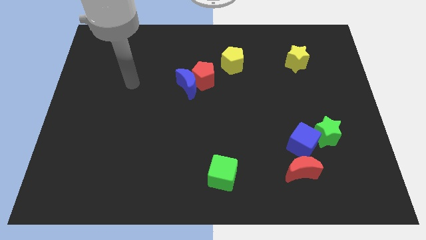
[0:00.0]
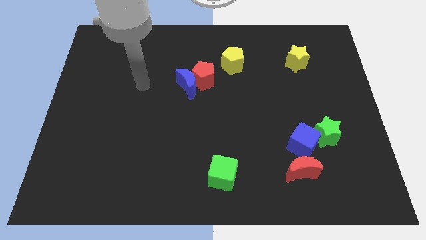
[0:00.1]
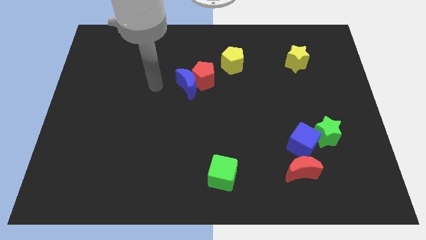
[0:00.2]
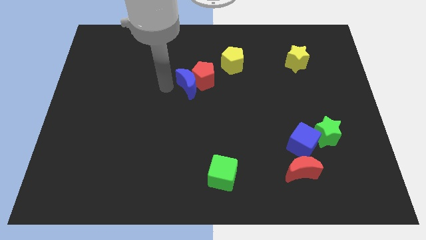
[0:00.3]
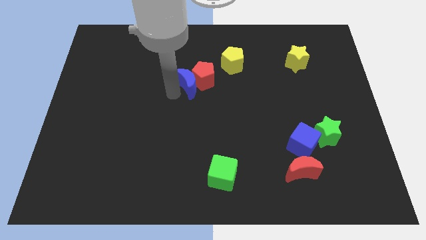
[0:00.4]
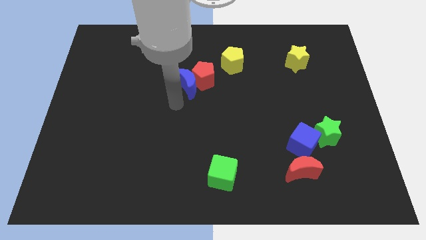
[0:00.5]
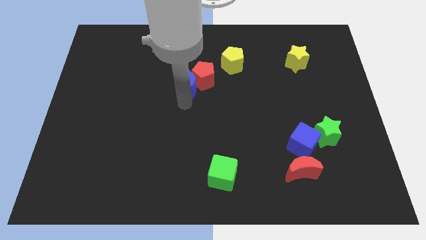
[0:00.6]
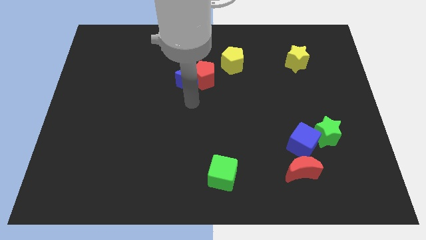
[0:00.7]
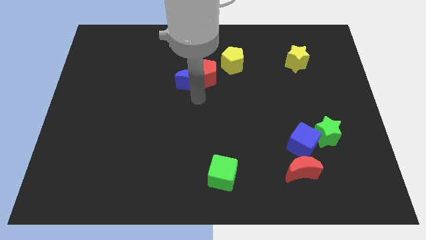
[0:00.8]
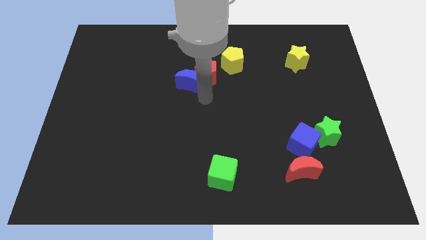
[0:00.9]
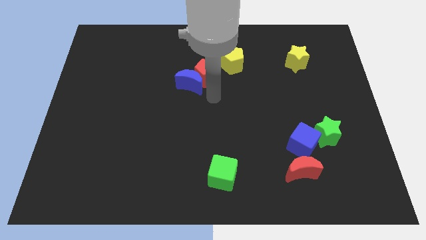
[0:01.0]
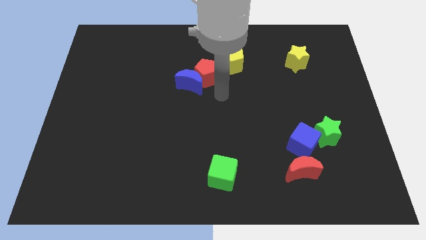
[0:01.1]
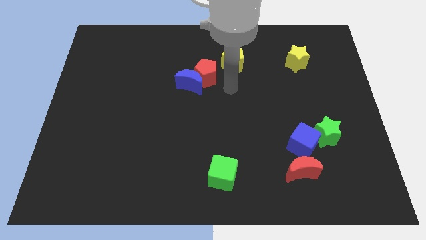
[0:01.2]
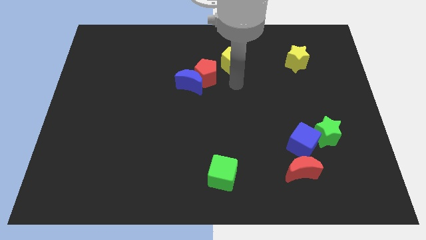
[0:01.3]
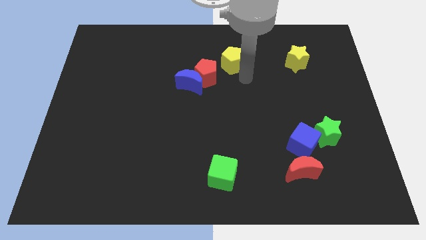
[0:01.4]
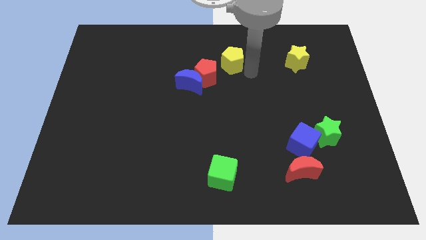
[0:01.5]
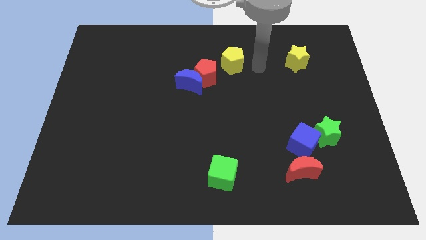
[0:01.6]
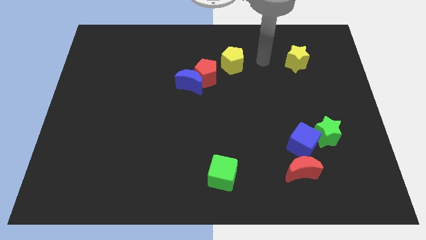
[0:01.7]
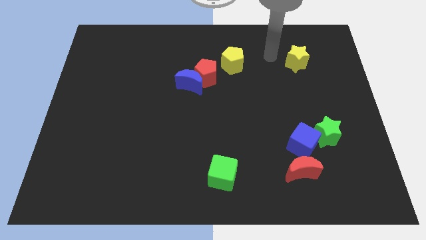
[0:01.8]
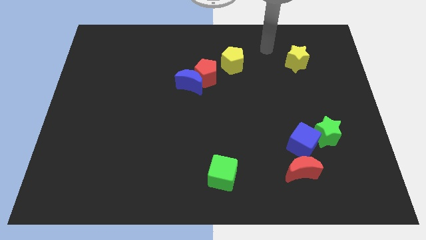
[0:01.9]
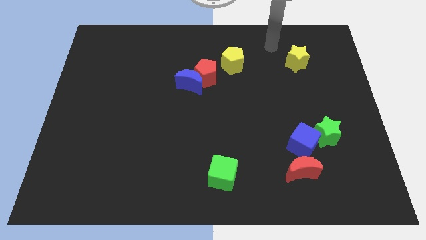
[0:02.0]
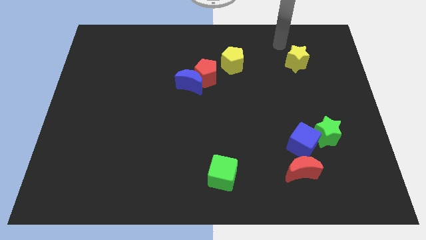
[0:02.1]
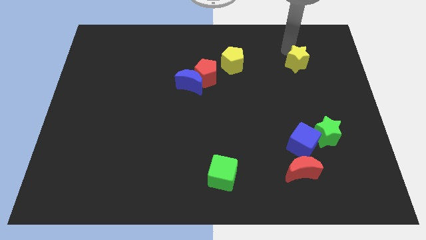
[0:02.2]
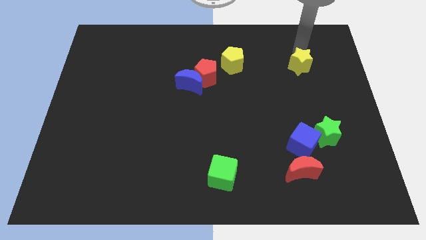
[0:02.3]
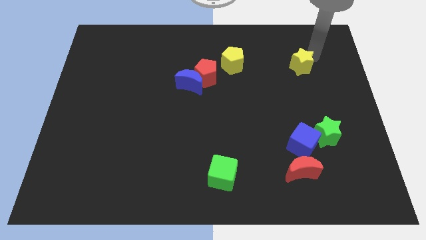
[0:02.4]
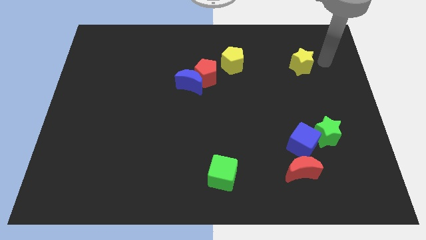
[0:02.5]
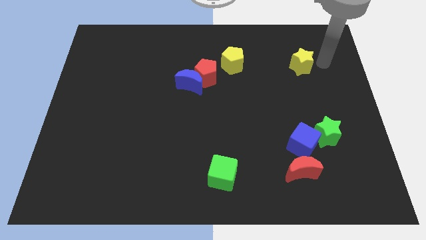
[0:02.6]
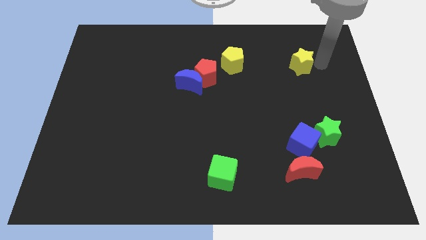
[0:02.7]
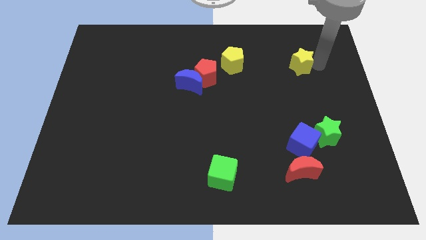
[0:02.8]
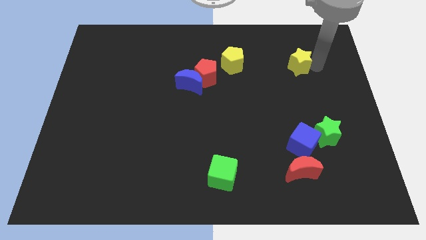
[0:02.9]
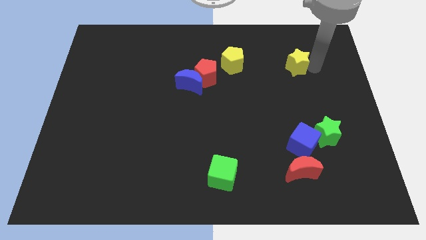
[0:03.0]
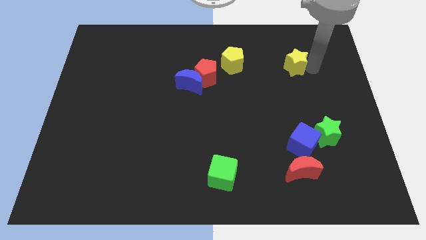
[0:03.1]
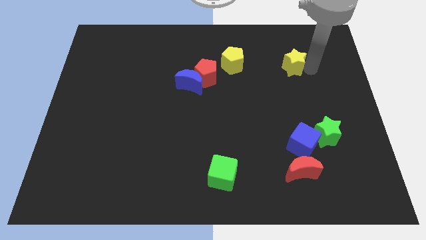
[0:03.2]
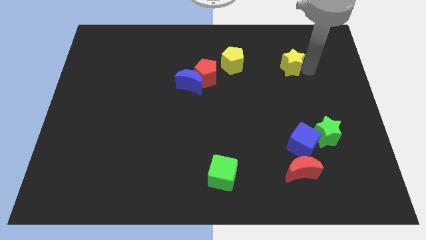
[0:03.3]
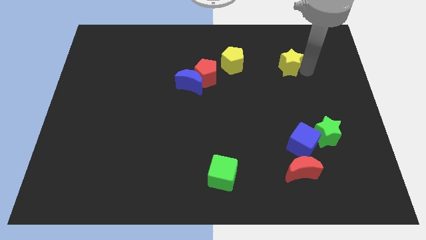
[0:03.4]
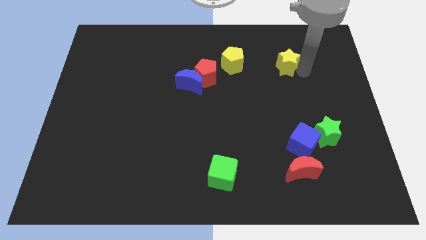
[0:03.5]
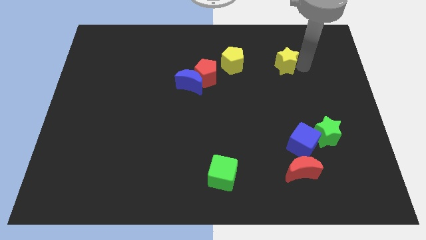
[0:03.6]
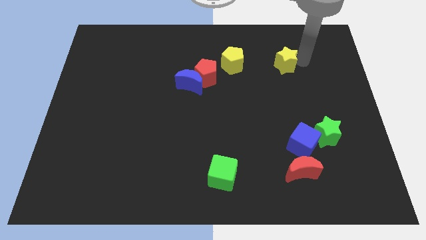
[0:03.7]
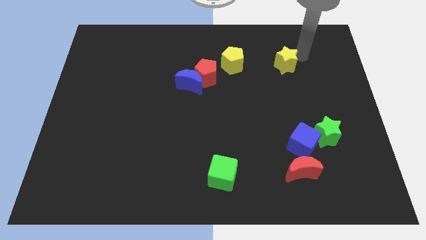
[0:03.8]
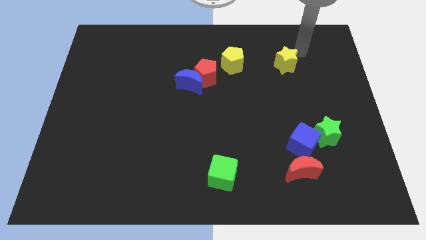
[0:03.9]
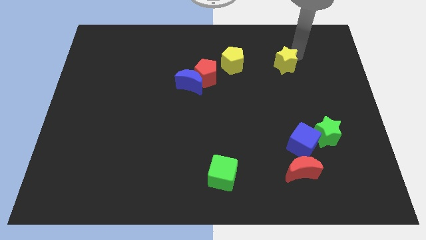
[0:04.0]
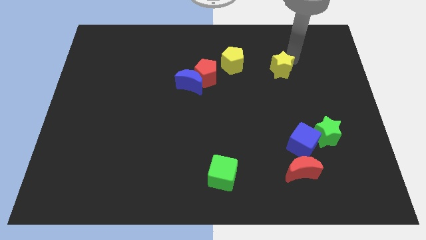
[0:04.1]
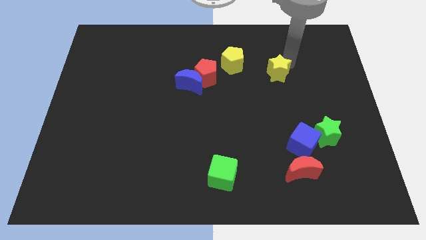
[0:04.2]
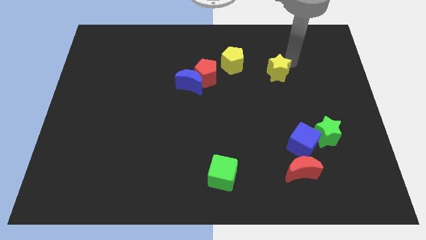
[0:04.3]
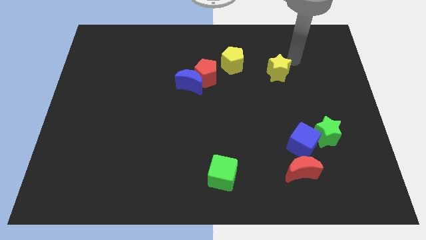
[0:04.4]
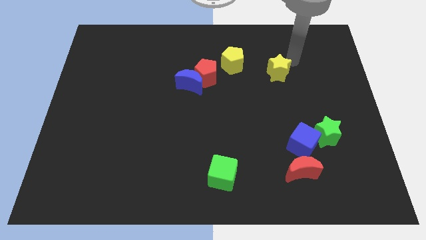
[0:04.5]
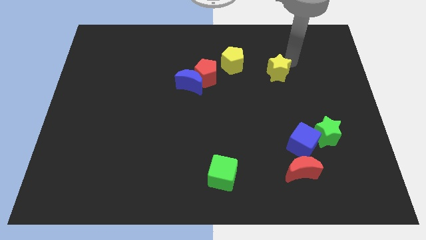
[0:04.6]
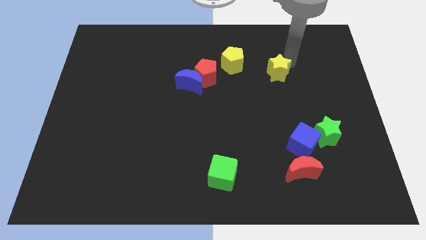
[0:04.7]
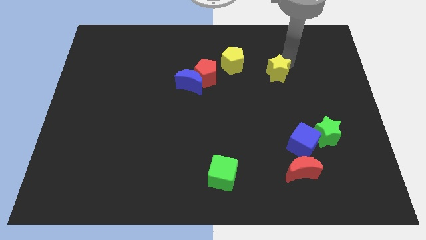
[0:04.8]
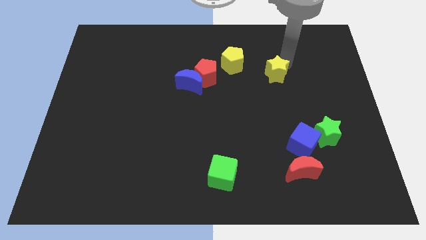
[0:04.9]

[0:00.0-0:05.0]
move the yellow star a bit down and then left

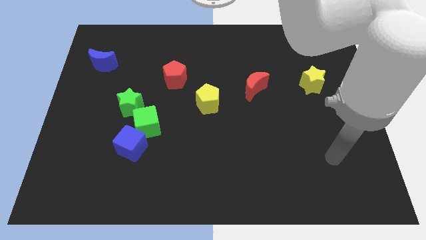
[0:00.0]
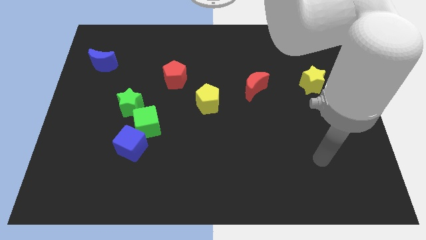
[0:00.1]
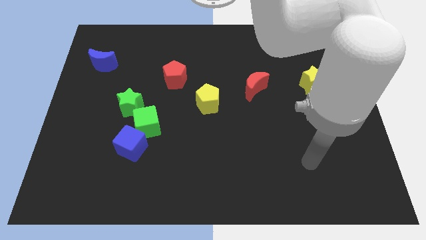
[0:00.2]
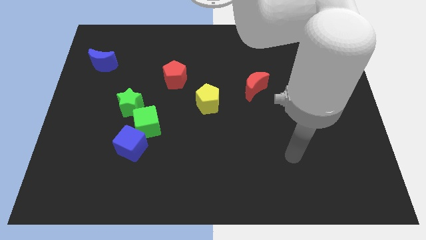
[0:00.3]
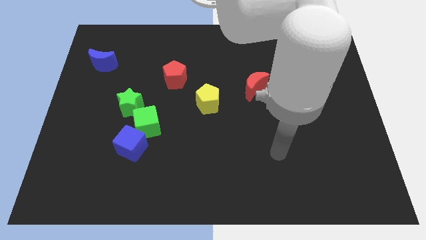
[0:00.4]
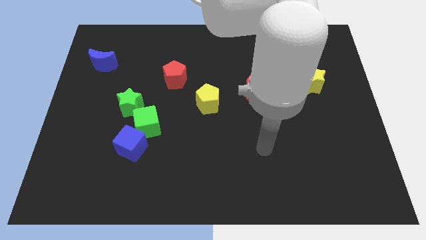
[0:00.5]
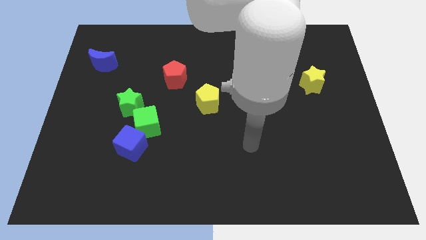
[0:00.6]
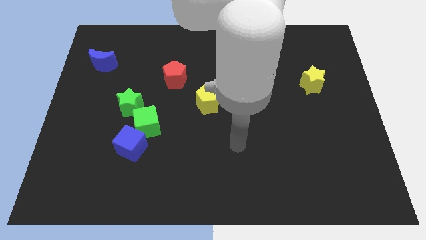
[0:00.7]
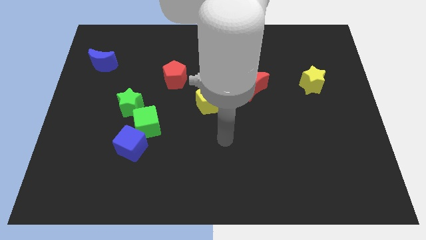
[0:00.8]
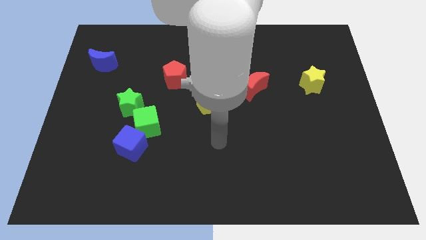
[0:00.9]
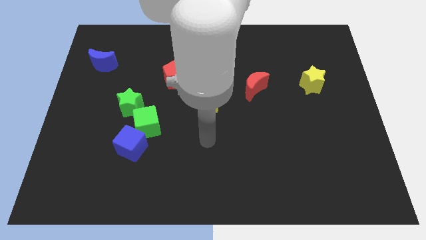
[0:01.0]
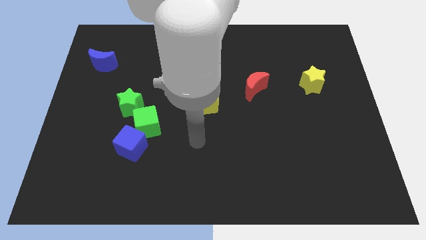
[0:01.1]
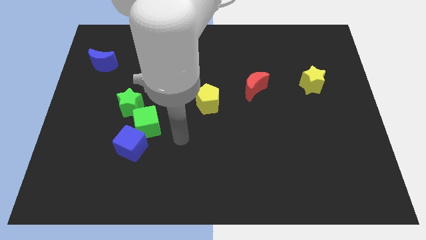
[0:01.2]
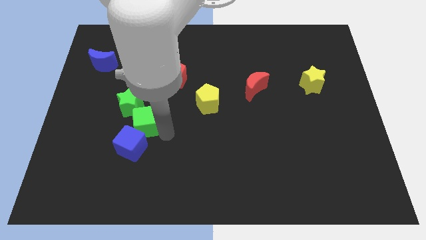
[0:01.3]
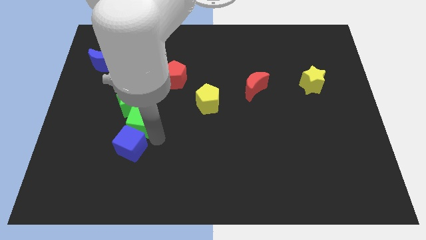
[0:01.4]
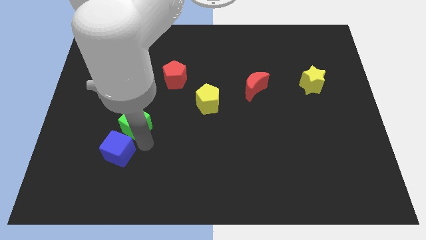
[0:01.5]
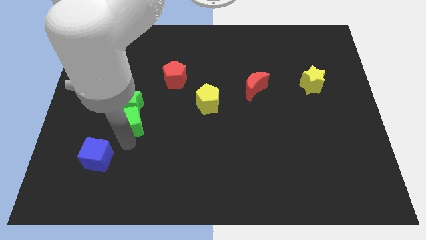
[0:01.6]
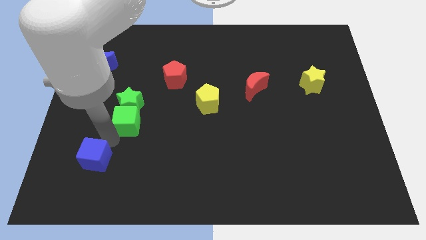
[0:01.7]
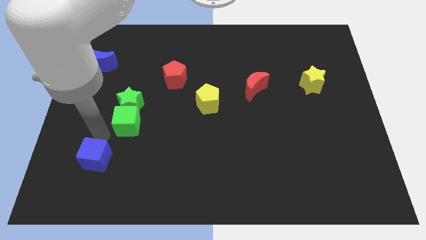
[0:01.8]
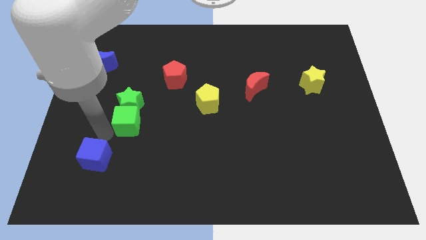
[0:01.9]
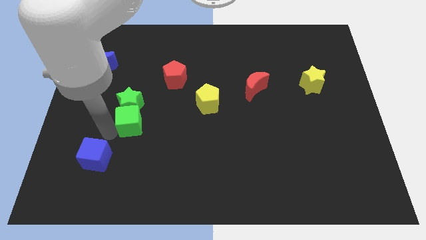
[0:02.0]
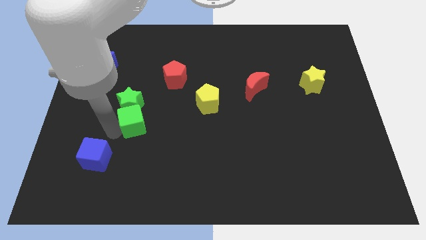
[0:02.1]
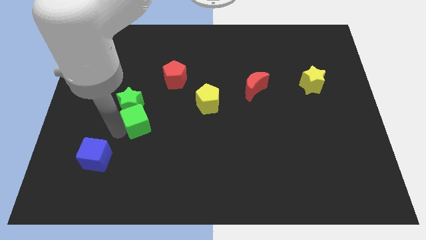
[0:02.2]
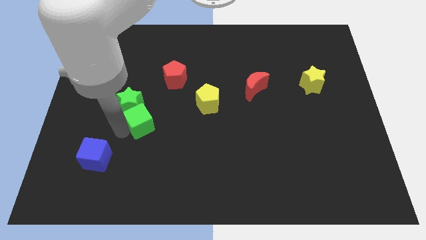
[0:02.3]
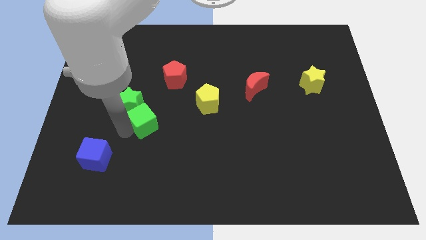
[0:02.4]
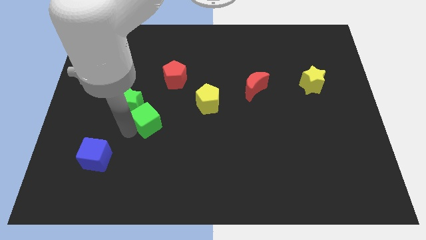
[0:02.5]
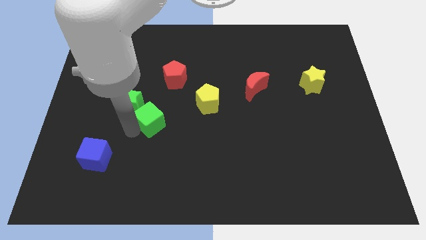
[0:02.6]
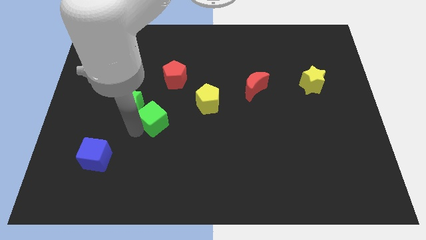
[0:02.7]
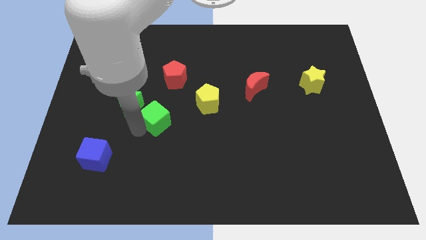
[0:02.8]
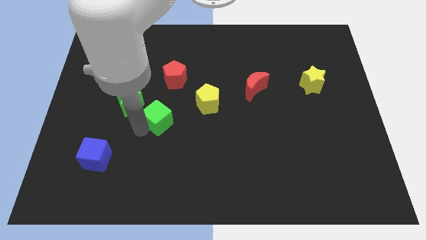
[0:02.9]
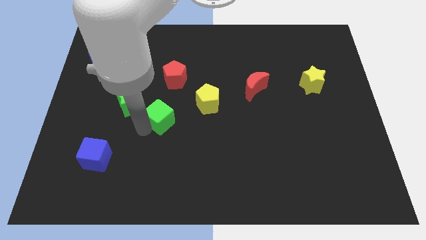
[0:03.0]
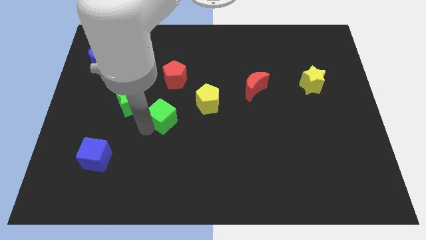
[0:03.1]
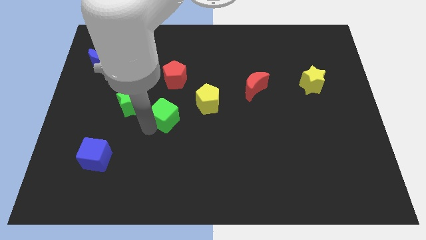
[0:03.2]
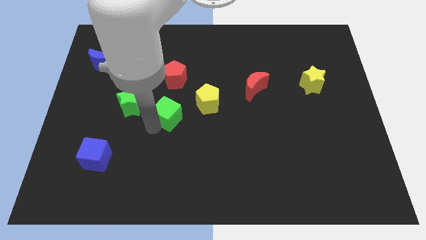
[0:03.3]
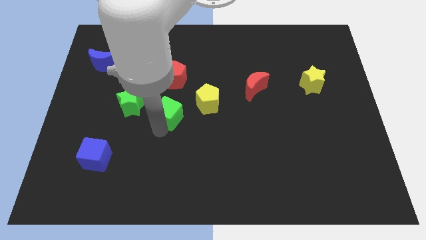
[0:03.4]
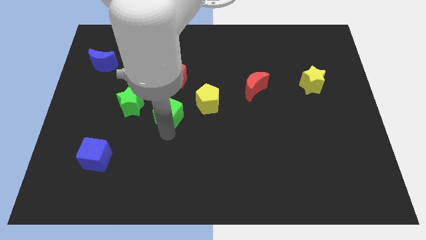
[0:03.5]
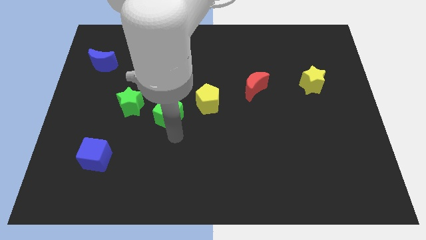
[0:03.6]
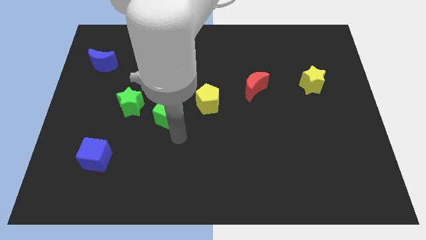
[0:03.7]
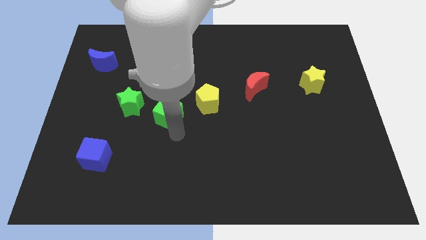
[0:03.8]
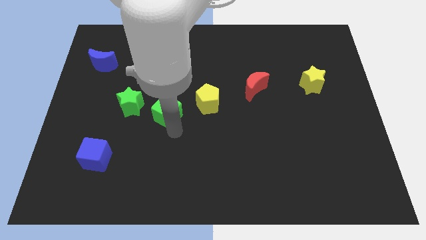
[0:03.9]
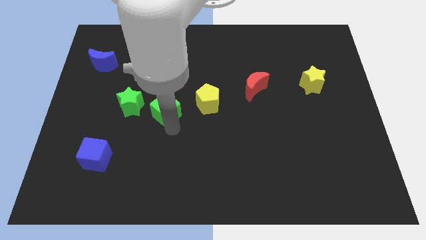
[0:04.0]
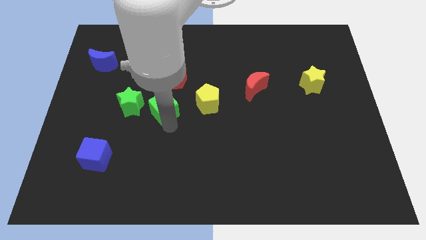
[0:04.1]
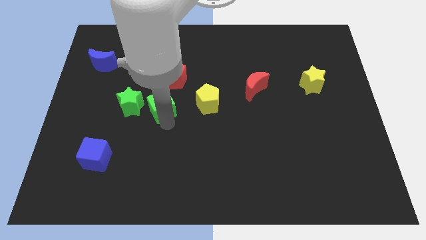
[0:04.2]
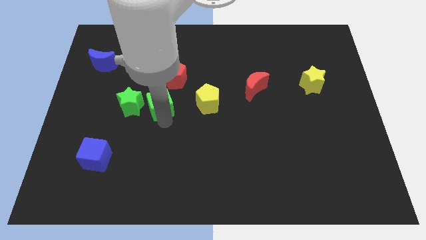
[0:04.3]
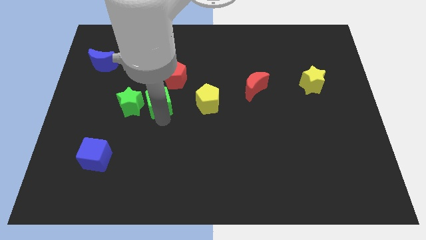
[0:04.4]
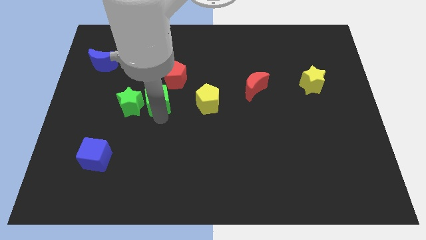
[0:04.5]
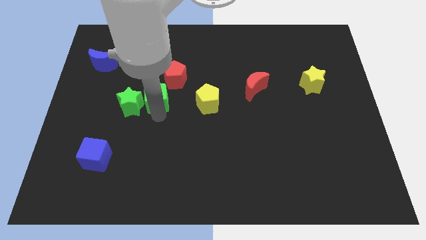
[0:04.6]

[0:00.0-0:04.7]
push the green cube a little up
